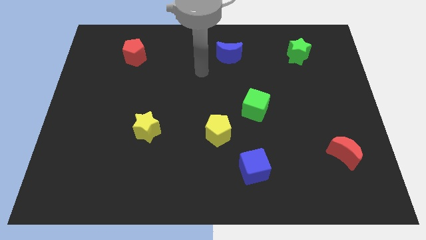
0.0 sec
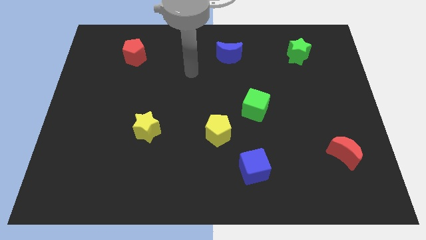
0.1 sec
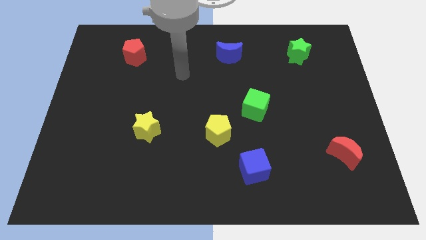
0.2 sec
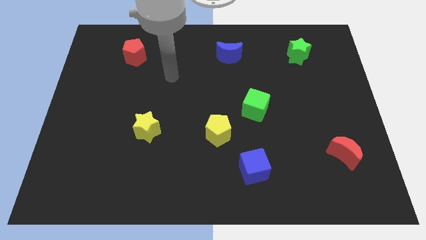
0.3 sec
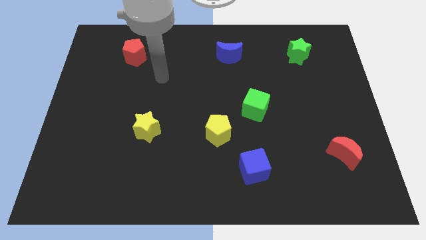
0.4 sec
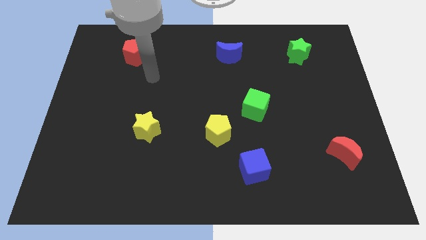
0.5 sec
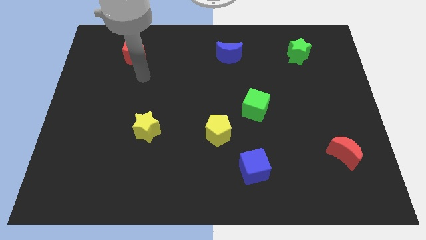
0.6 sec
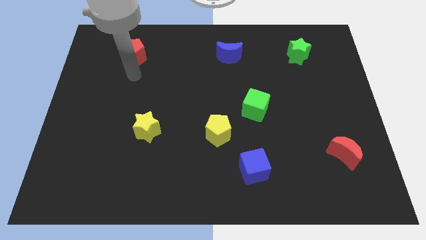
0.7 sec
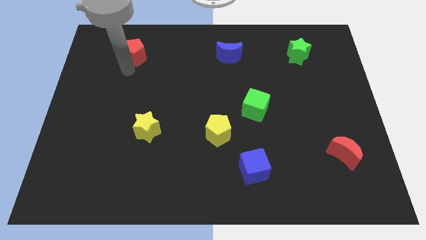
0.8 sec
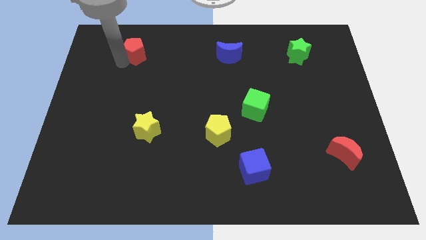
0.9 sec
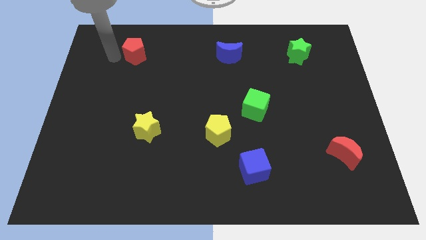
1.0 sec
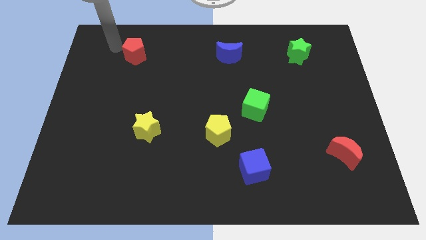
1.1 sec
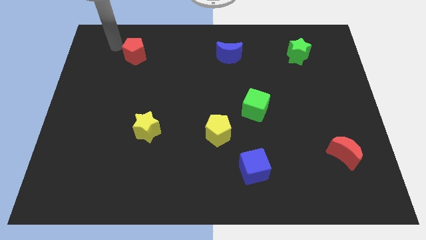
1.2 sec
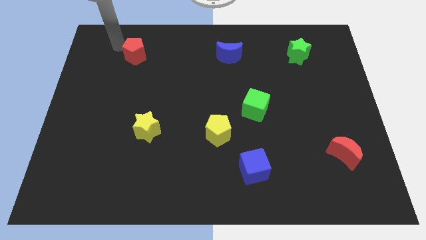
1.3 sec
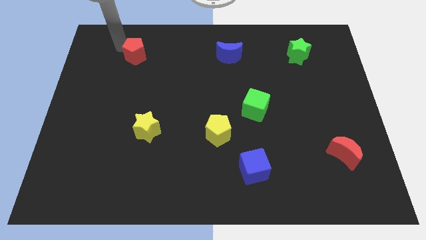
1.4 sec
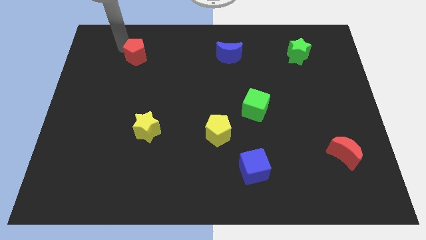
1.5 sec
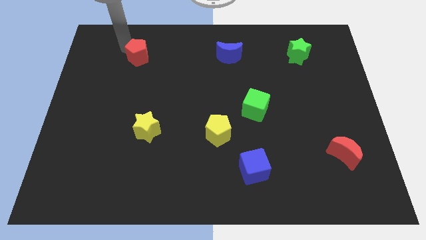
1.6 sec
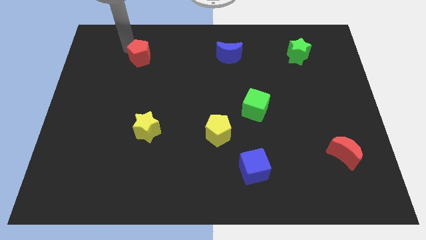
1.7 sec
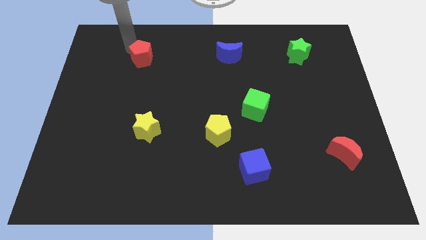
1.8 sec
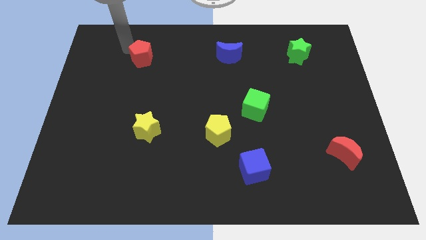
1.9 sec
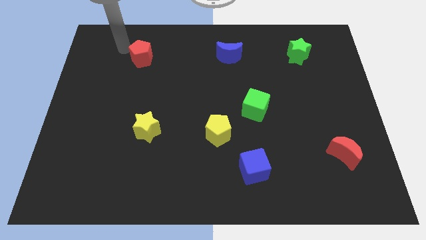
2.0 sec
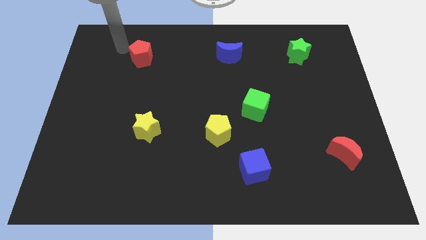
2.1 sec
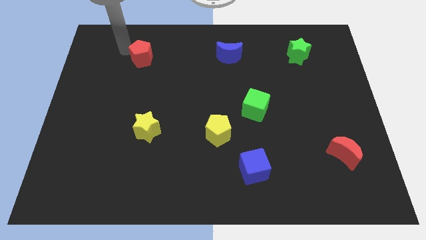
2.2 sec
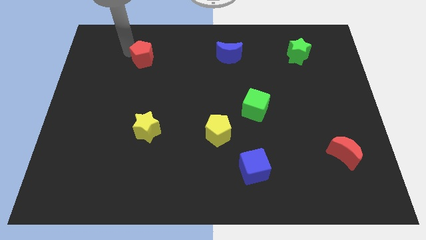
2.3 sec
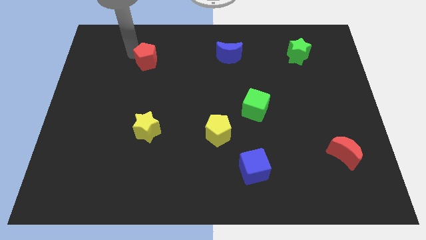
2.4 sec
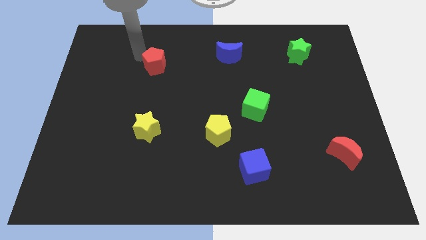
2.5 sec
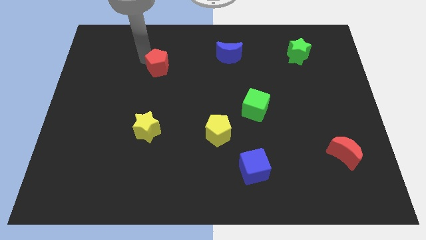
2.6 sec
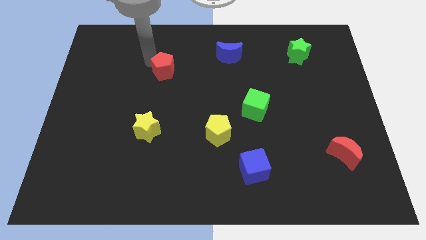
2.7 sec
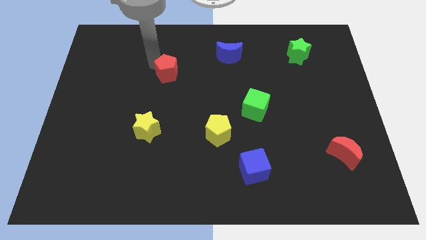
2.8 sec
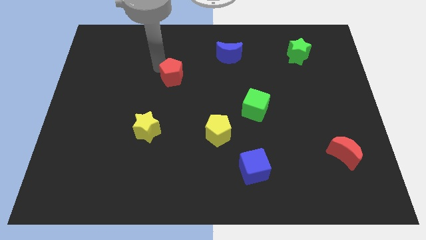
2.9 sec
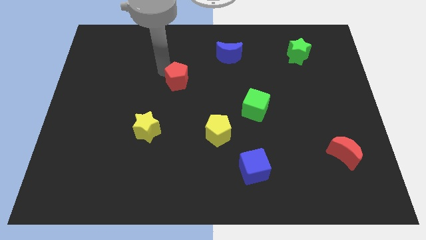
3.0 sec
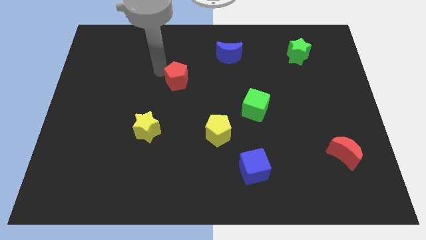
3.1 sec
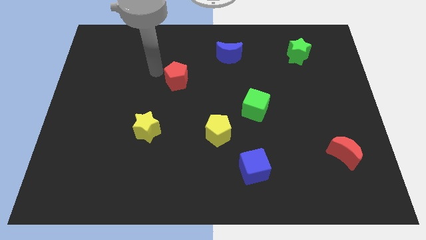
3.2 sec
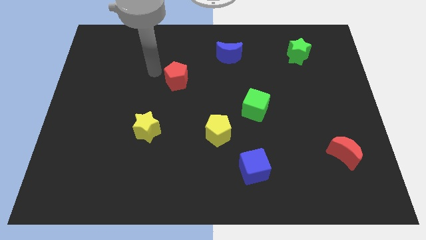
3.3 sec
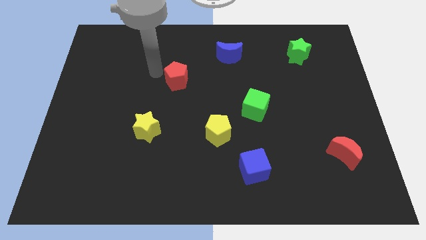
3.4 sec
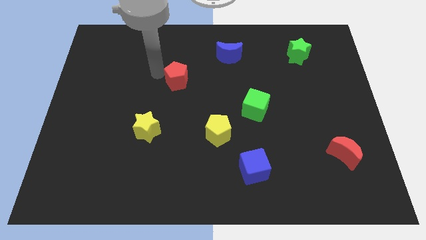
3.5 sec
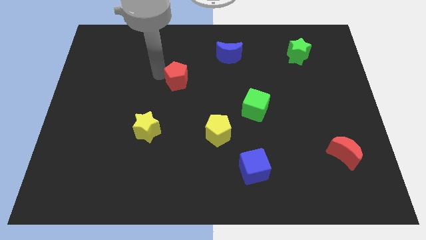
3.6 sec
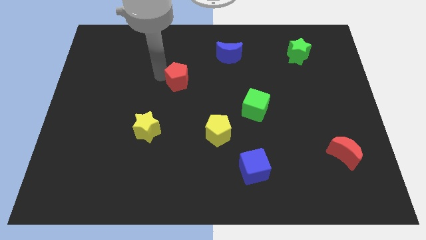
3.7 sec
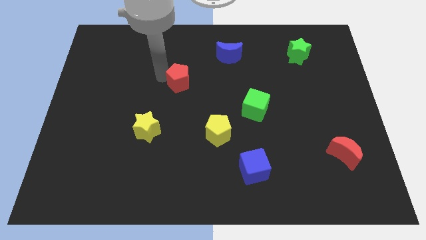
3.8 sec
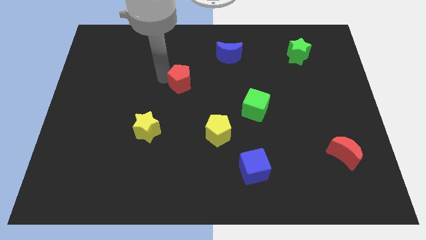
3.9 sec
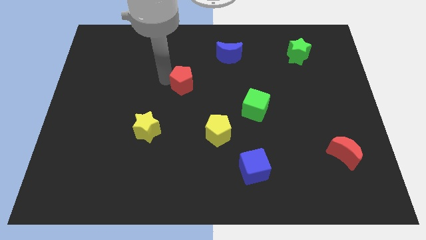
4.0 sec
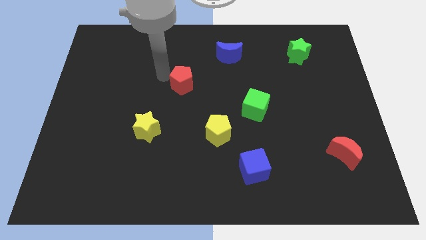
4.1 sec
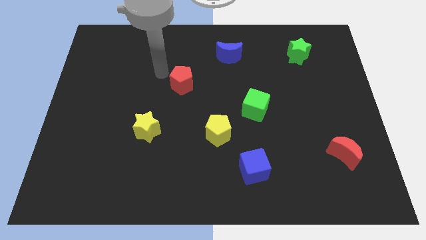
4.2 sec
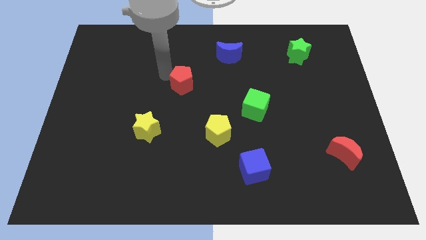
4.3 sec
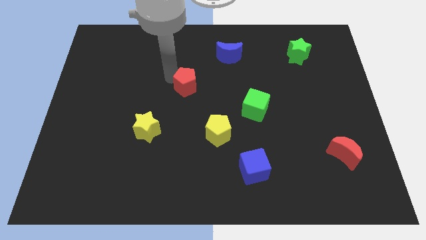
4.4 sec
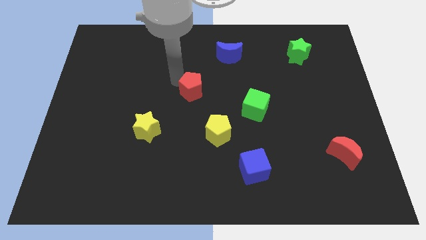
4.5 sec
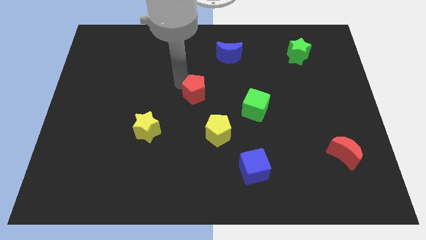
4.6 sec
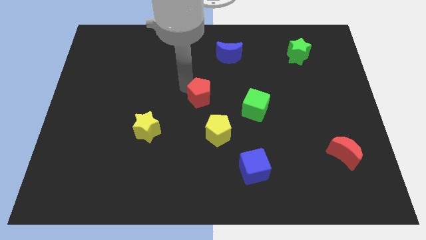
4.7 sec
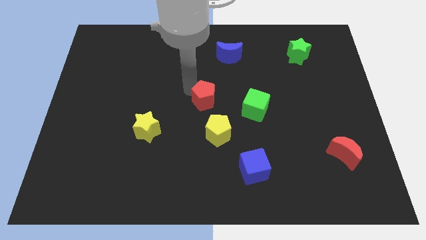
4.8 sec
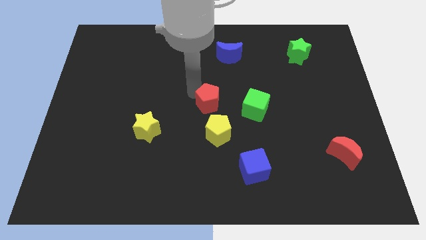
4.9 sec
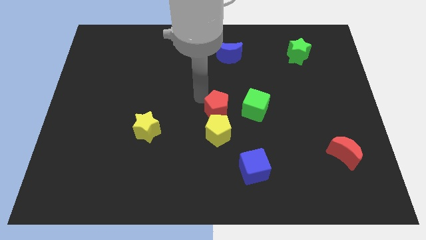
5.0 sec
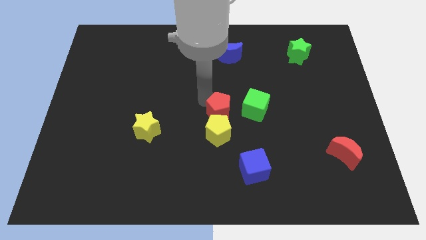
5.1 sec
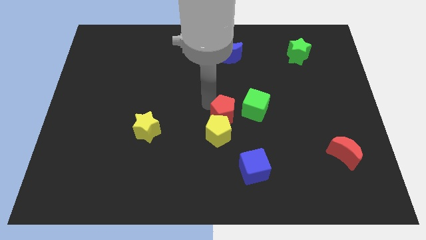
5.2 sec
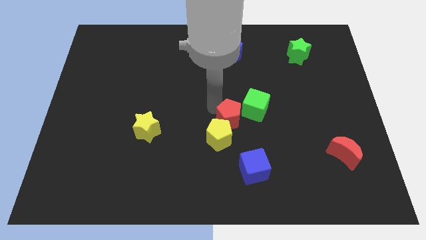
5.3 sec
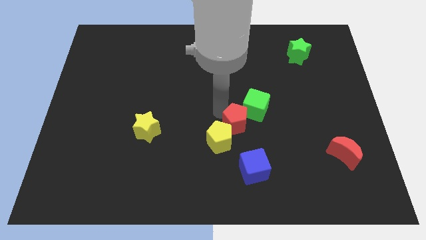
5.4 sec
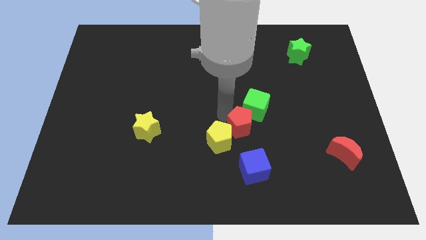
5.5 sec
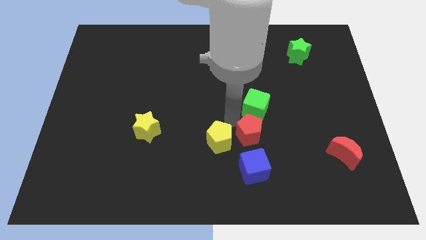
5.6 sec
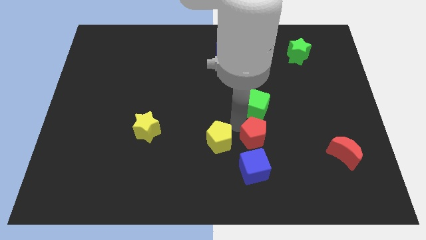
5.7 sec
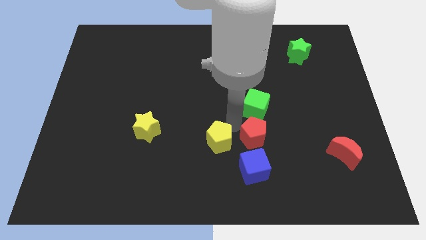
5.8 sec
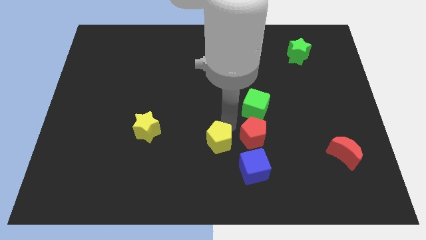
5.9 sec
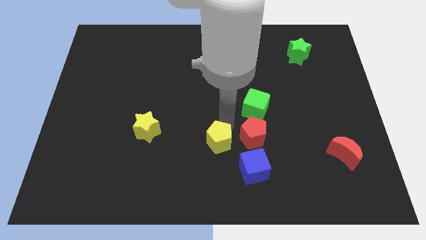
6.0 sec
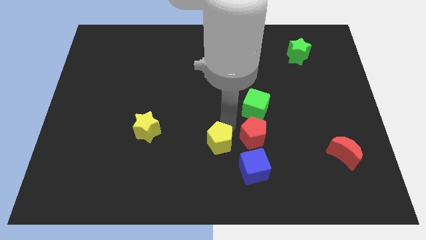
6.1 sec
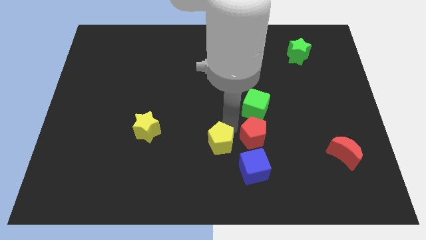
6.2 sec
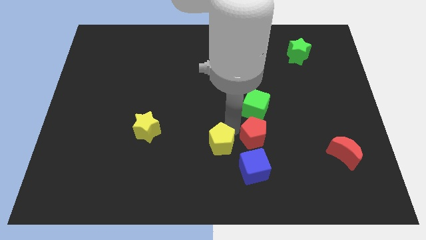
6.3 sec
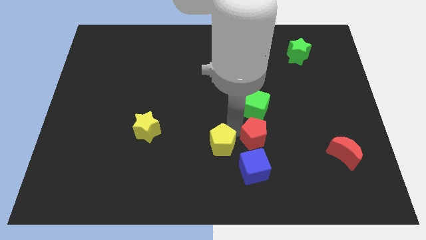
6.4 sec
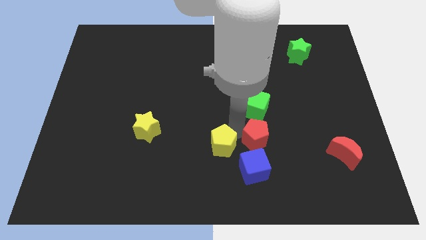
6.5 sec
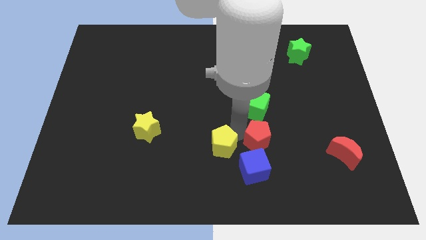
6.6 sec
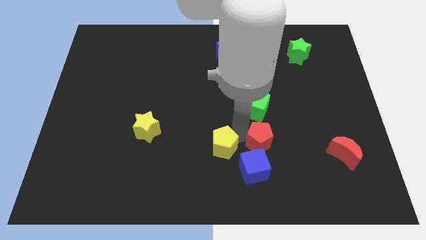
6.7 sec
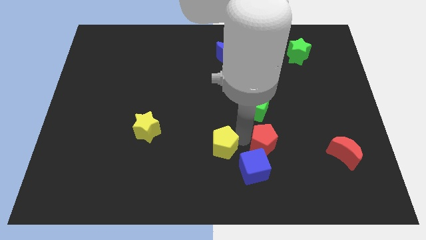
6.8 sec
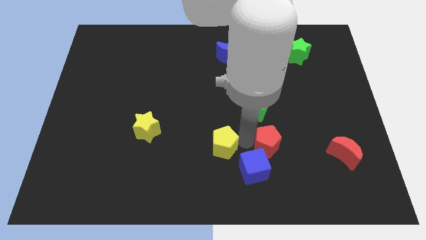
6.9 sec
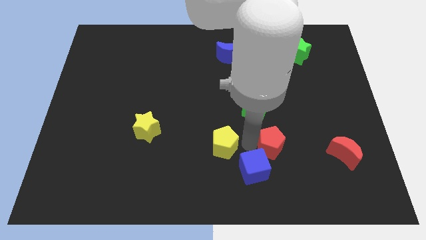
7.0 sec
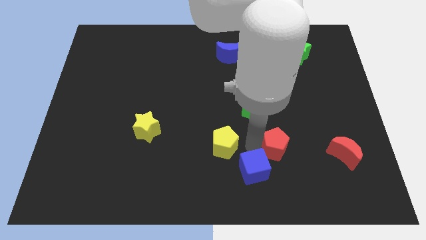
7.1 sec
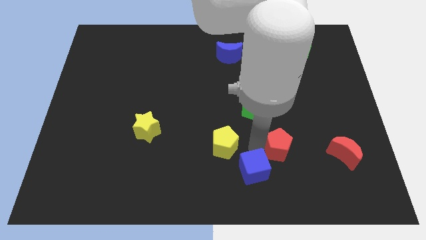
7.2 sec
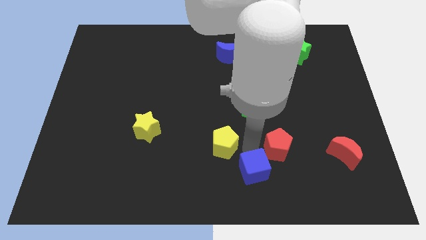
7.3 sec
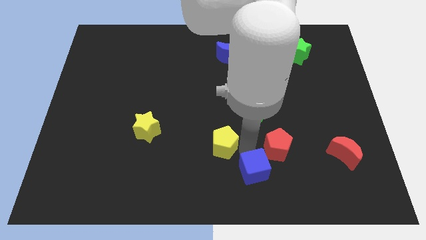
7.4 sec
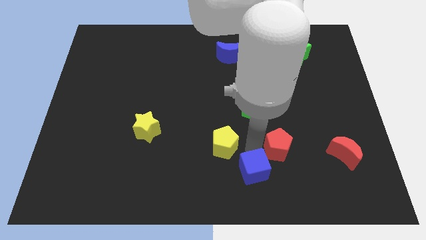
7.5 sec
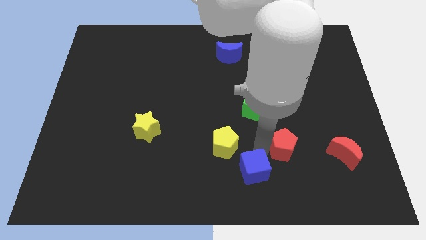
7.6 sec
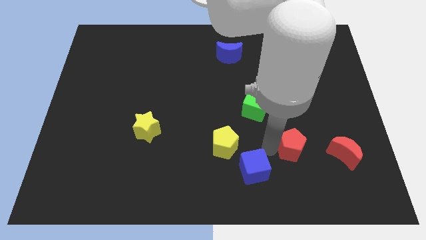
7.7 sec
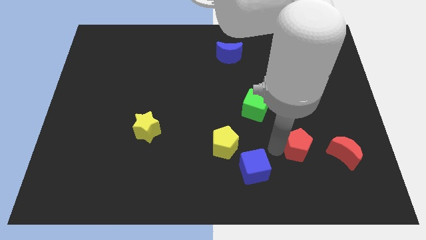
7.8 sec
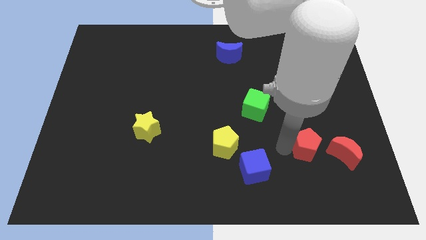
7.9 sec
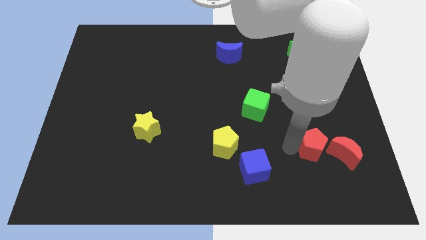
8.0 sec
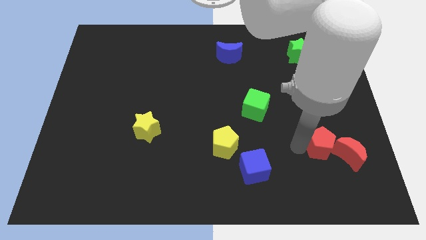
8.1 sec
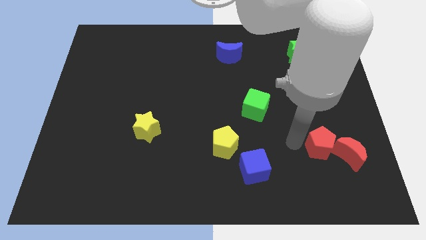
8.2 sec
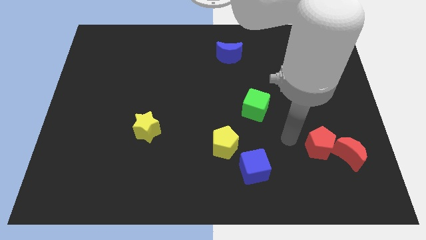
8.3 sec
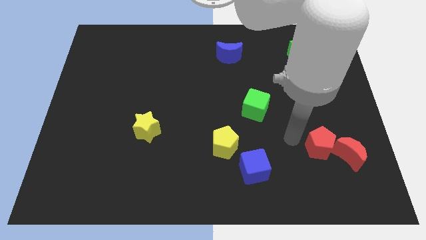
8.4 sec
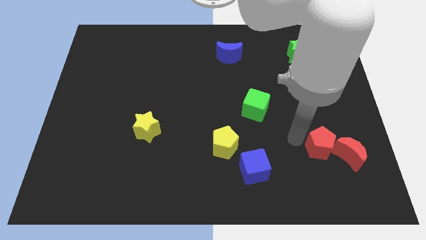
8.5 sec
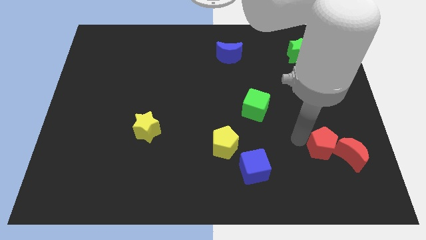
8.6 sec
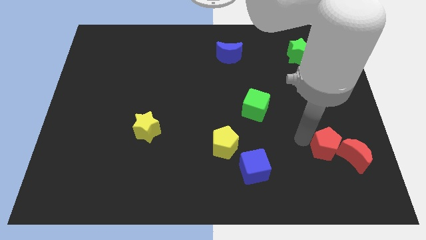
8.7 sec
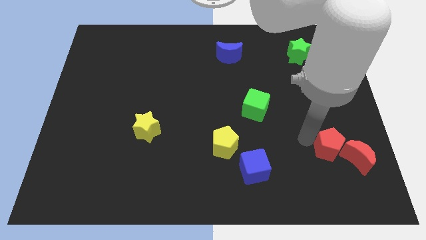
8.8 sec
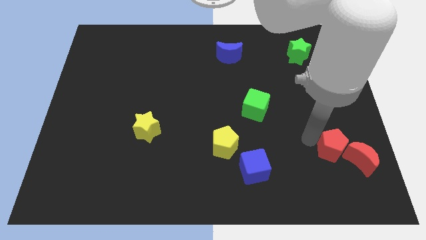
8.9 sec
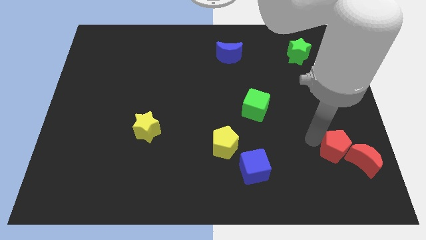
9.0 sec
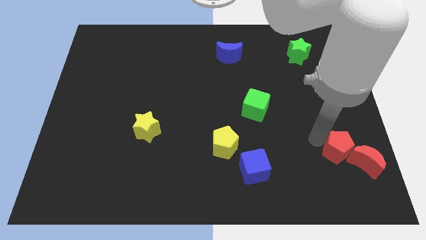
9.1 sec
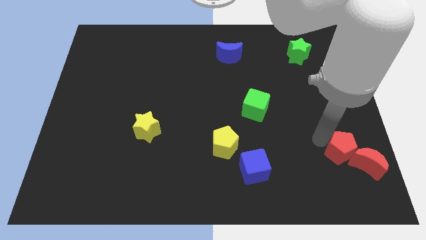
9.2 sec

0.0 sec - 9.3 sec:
slide the red pentagon next to the red moon
